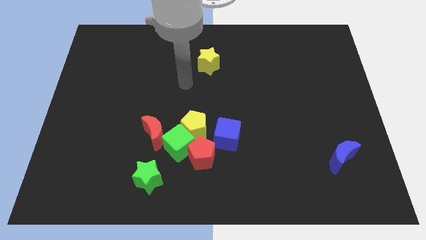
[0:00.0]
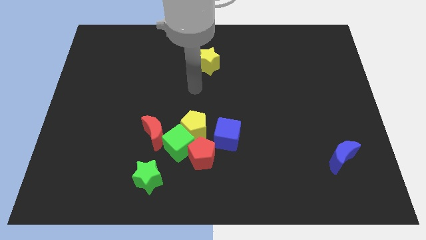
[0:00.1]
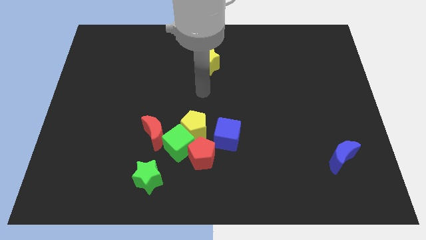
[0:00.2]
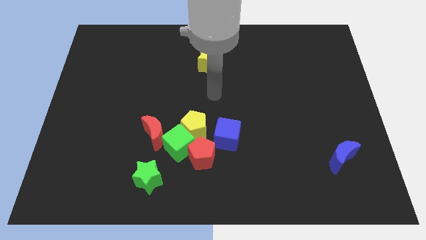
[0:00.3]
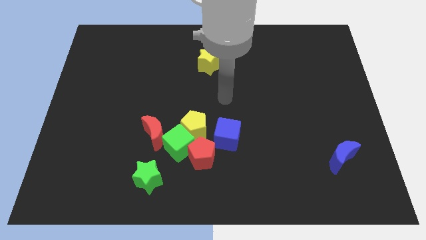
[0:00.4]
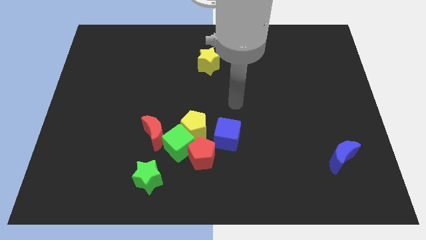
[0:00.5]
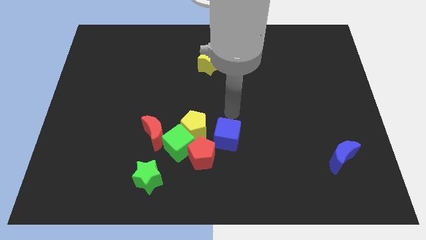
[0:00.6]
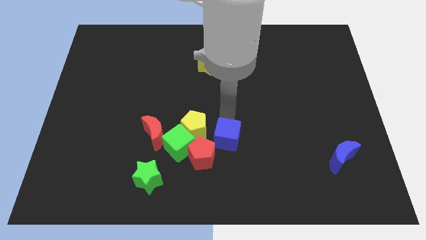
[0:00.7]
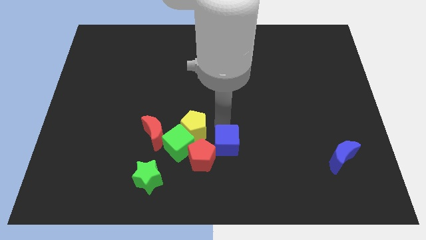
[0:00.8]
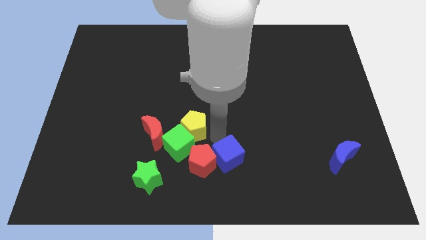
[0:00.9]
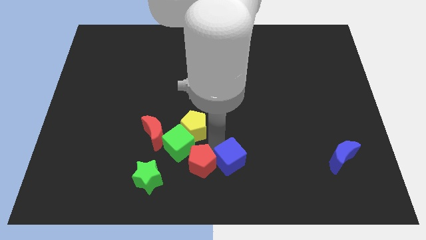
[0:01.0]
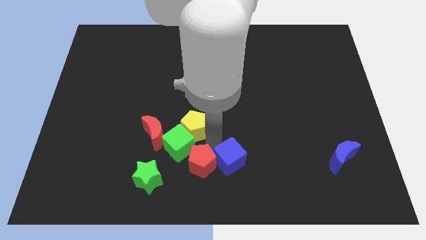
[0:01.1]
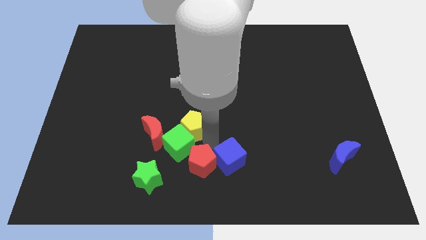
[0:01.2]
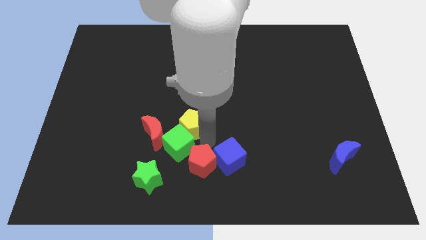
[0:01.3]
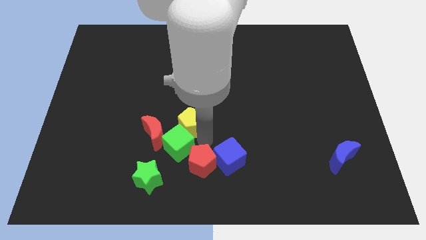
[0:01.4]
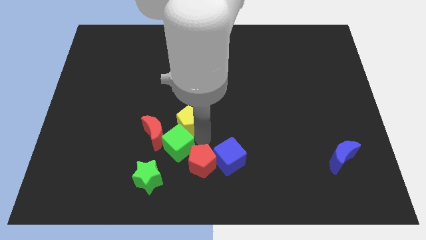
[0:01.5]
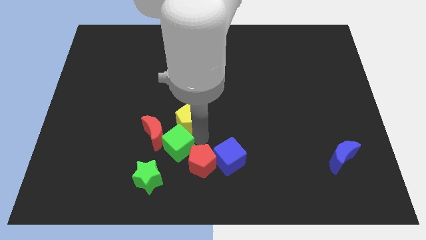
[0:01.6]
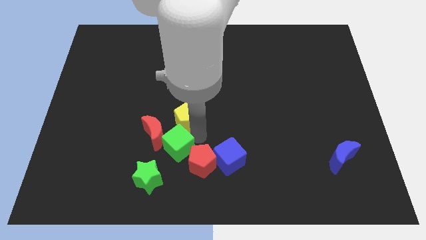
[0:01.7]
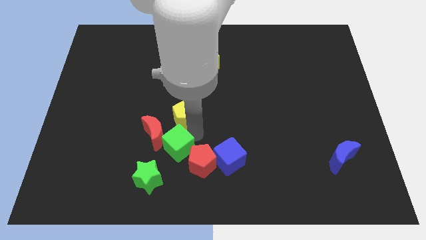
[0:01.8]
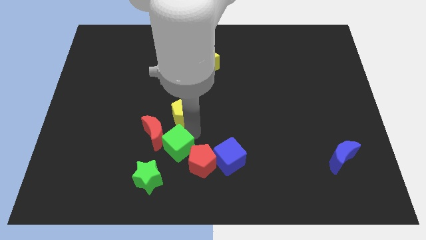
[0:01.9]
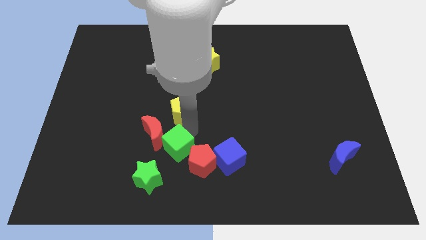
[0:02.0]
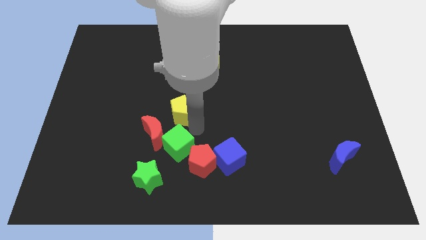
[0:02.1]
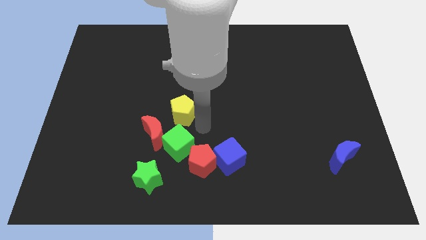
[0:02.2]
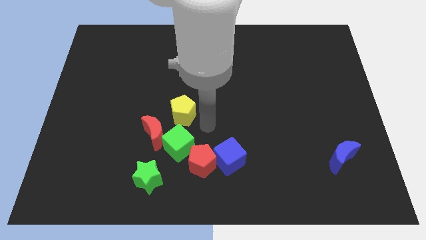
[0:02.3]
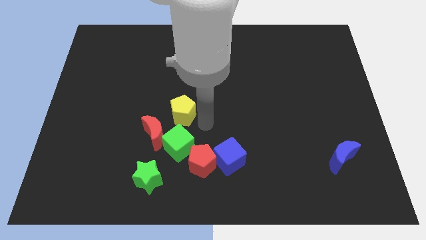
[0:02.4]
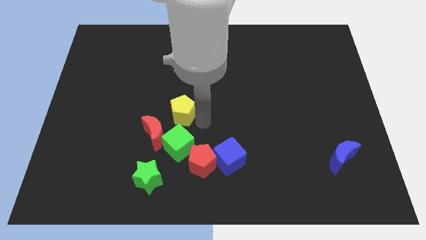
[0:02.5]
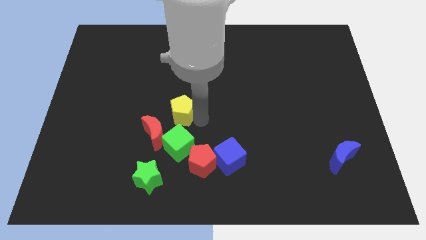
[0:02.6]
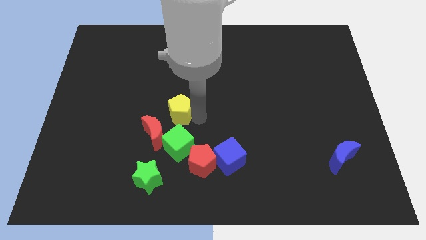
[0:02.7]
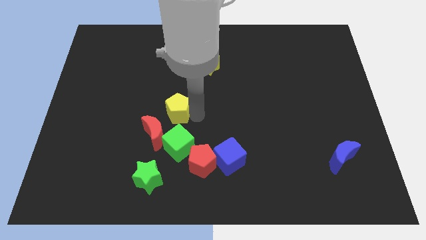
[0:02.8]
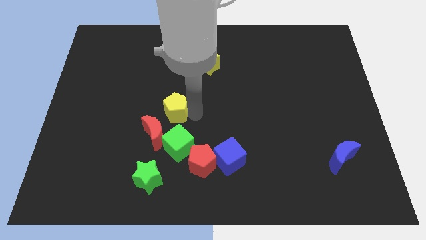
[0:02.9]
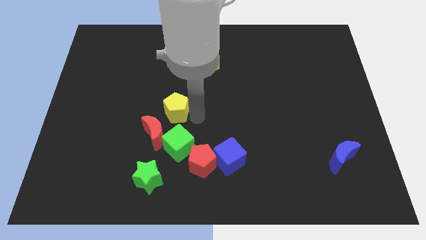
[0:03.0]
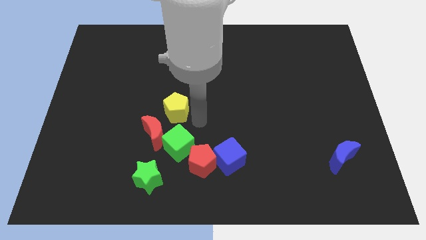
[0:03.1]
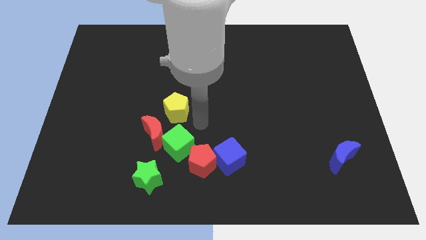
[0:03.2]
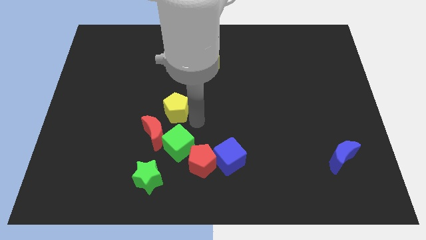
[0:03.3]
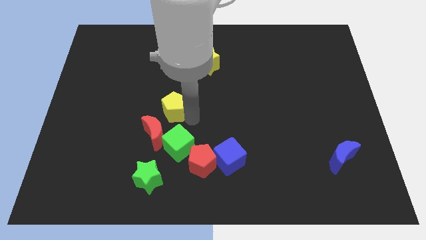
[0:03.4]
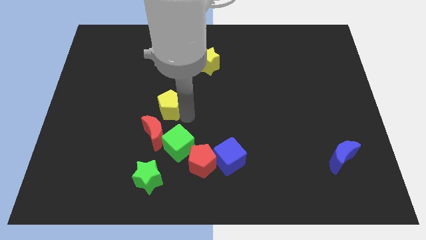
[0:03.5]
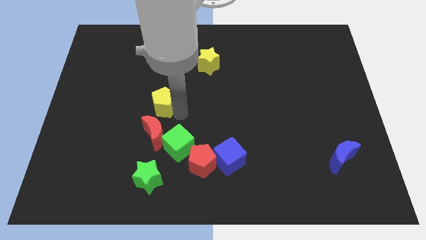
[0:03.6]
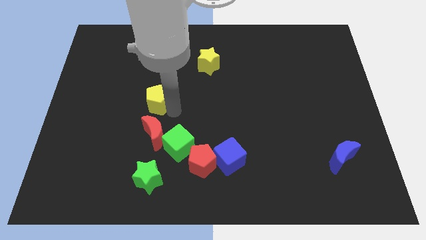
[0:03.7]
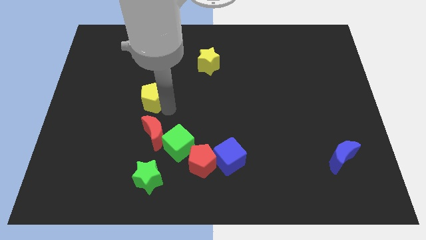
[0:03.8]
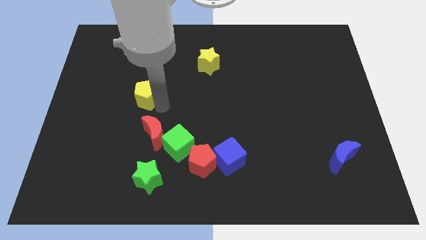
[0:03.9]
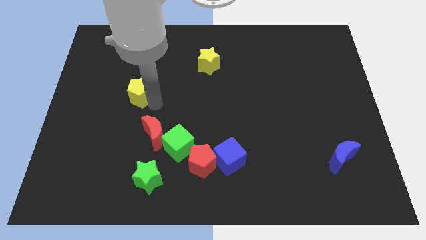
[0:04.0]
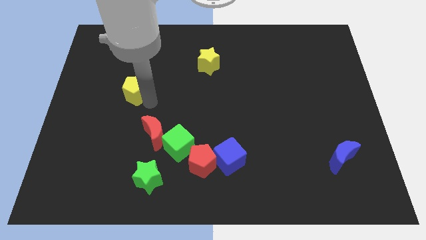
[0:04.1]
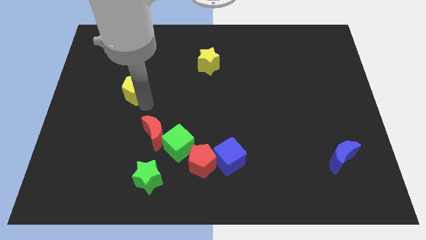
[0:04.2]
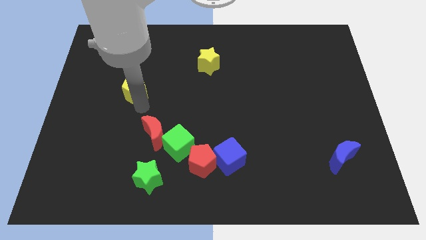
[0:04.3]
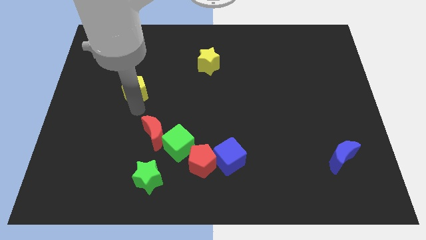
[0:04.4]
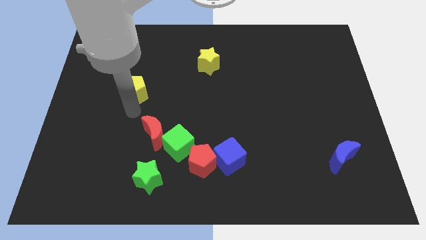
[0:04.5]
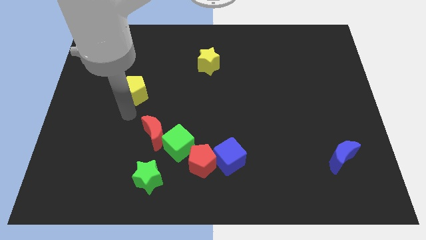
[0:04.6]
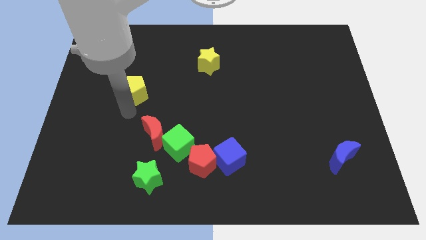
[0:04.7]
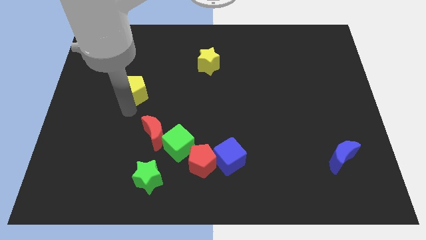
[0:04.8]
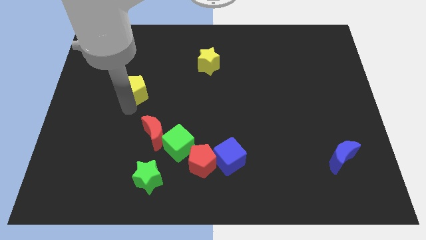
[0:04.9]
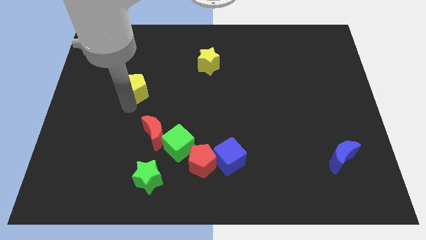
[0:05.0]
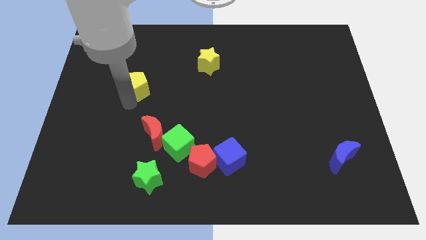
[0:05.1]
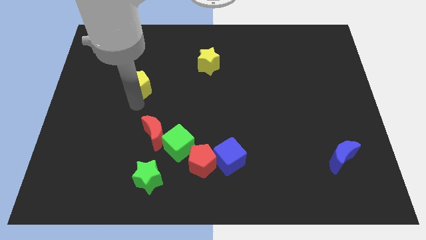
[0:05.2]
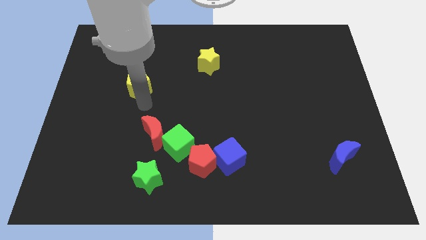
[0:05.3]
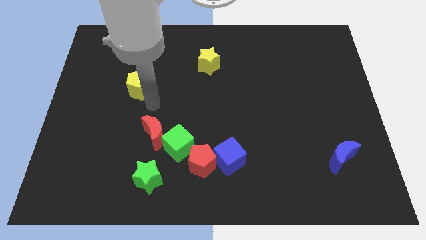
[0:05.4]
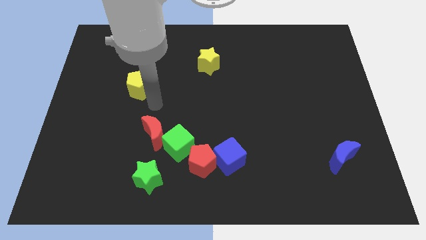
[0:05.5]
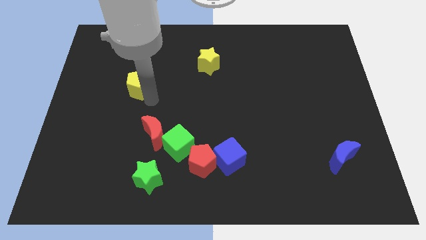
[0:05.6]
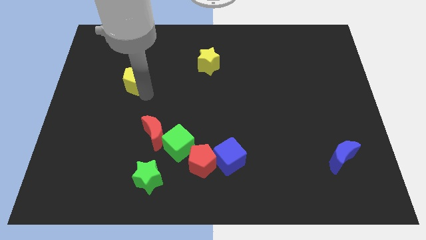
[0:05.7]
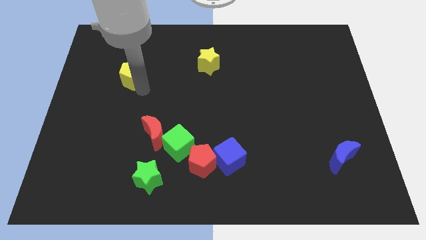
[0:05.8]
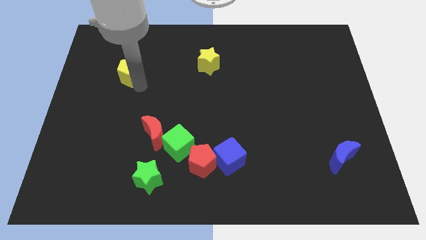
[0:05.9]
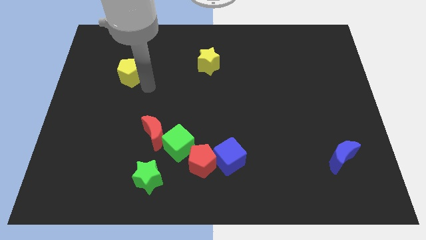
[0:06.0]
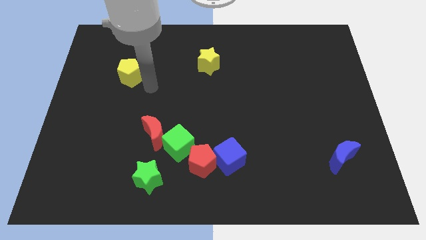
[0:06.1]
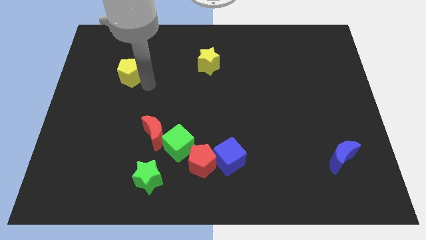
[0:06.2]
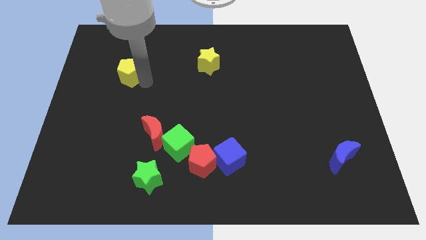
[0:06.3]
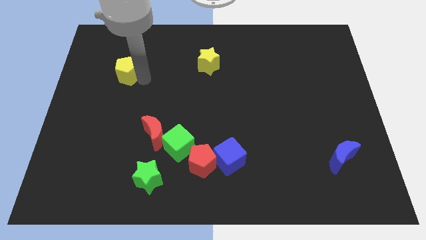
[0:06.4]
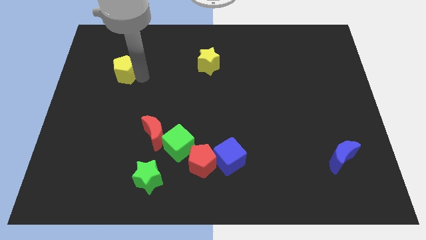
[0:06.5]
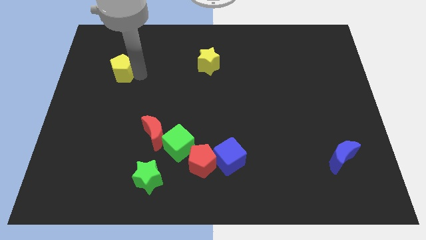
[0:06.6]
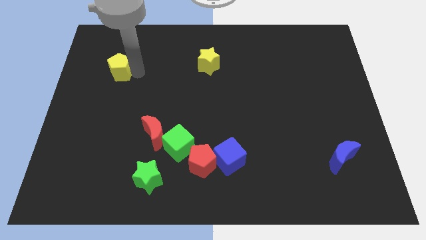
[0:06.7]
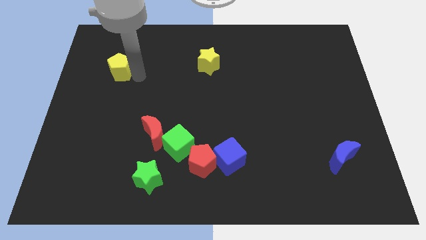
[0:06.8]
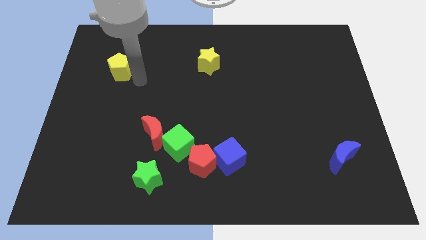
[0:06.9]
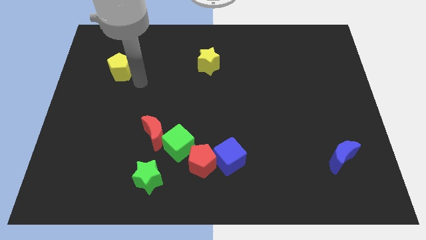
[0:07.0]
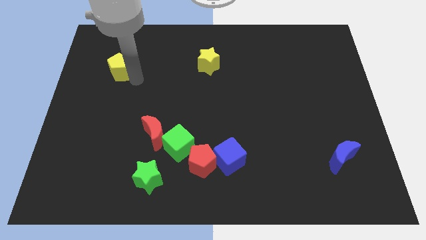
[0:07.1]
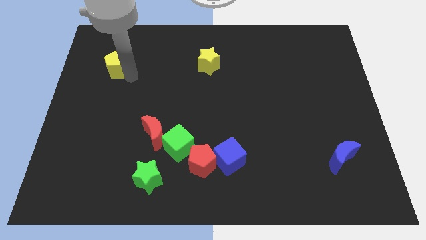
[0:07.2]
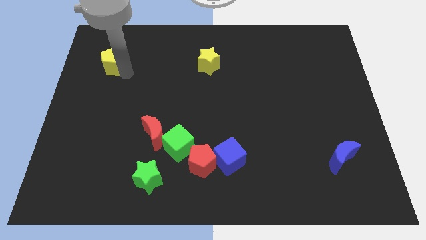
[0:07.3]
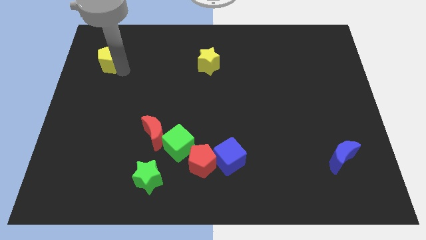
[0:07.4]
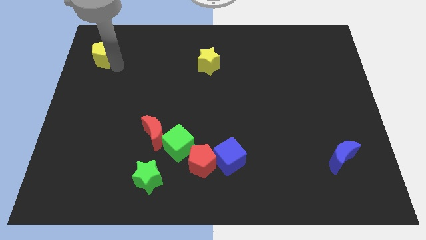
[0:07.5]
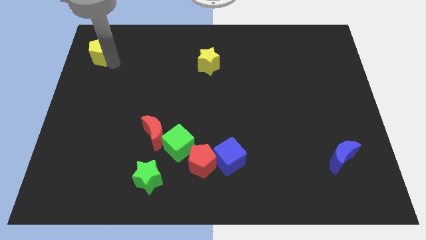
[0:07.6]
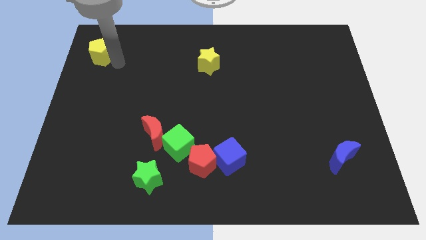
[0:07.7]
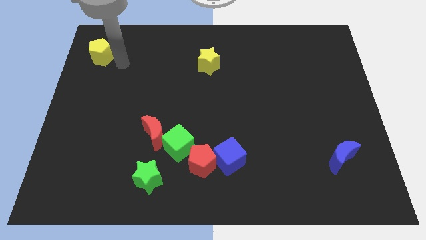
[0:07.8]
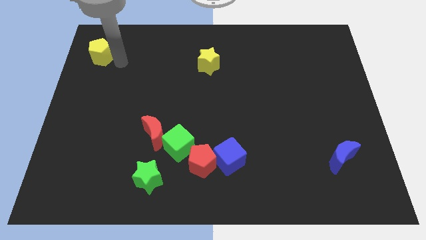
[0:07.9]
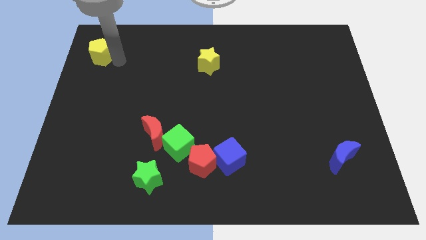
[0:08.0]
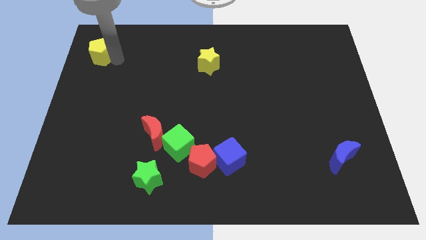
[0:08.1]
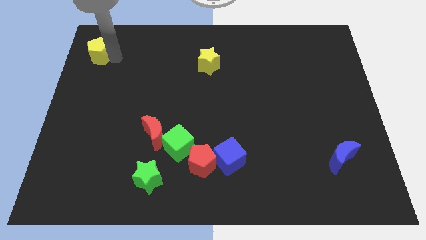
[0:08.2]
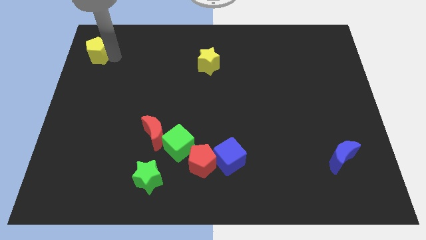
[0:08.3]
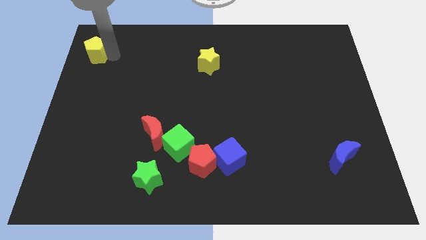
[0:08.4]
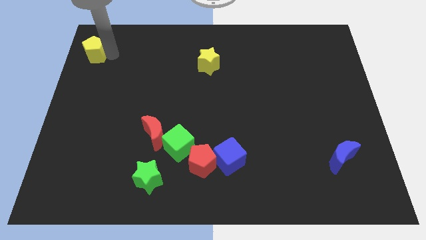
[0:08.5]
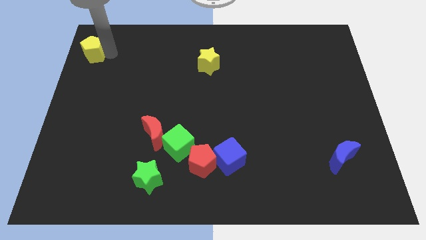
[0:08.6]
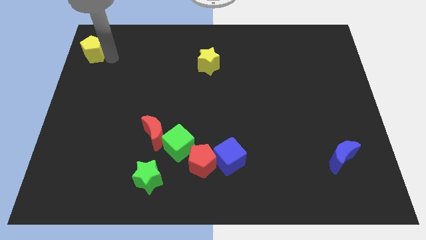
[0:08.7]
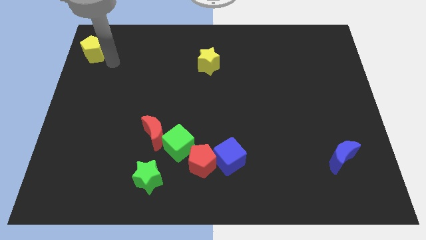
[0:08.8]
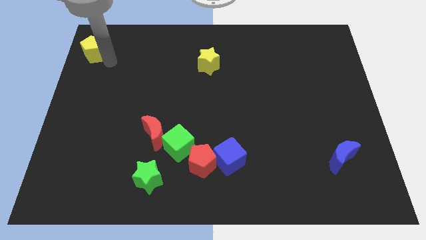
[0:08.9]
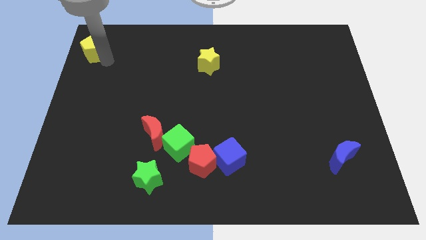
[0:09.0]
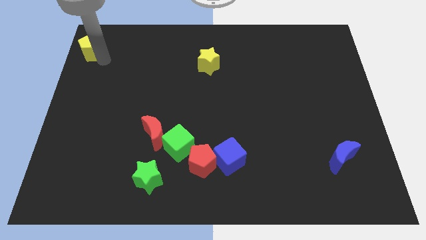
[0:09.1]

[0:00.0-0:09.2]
push the yellow pentagon to the top left
